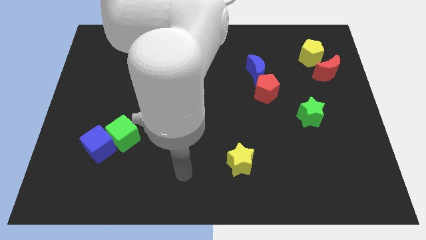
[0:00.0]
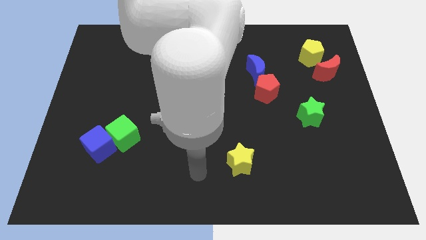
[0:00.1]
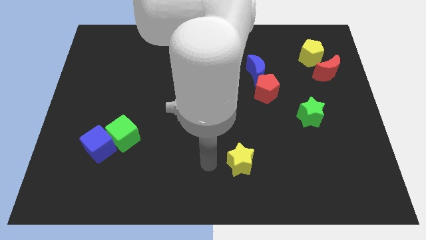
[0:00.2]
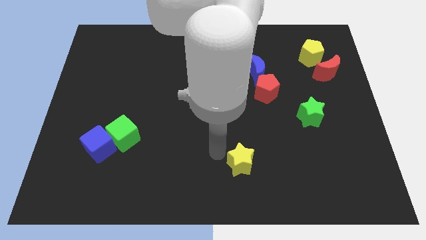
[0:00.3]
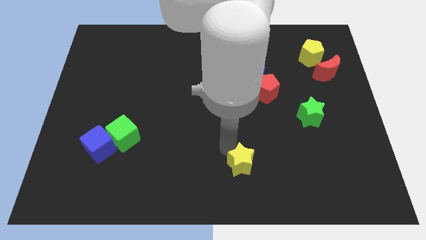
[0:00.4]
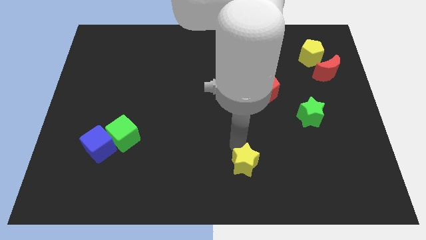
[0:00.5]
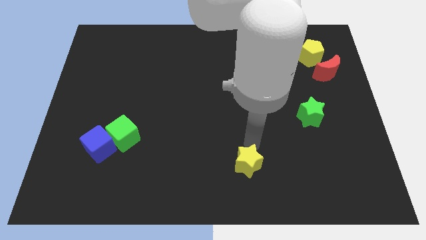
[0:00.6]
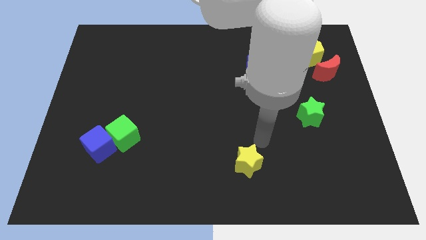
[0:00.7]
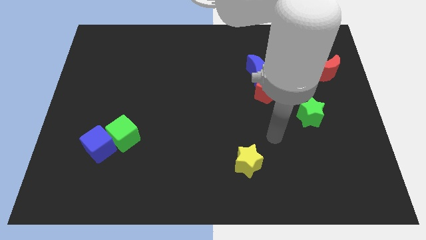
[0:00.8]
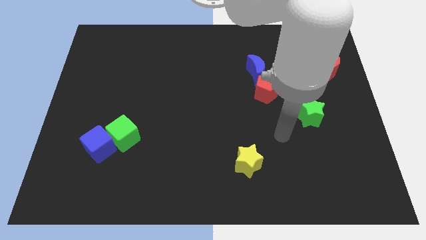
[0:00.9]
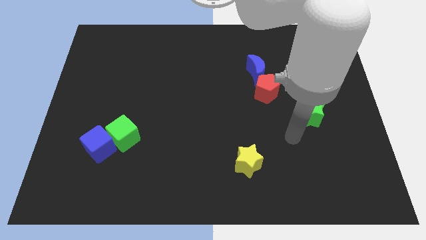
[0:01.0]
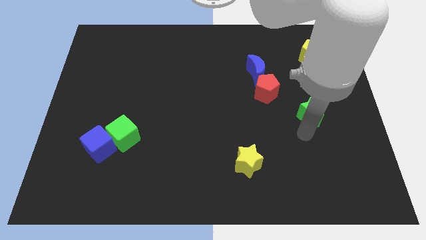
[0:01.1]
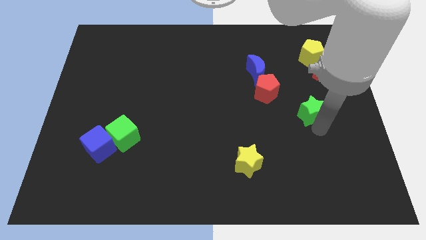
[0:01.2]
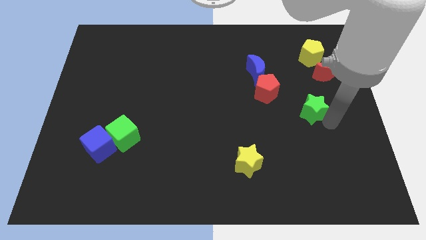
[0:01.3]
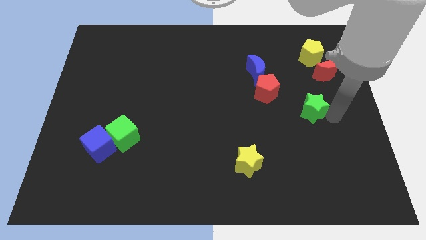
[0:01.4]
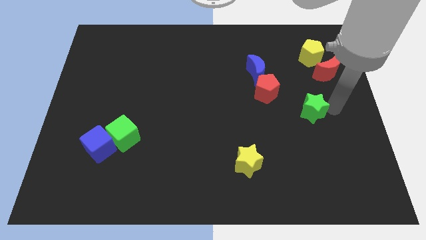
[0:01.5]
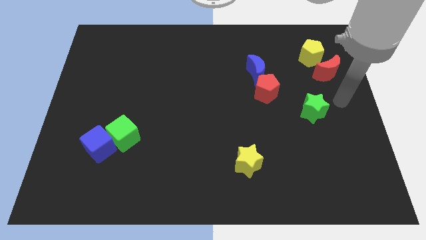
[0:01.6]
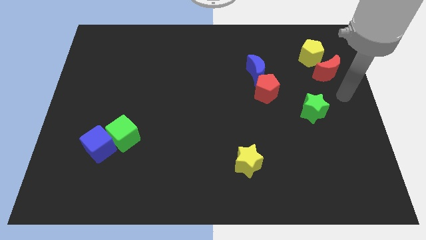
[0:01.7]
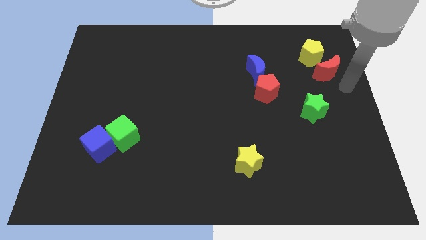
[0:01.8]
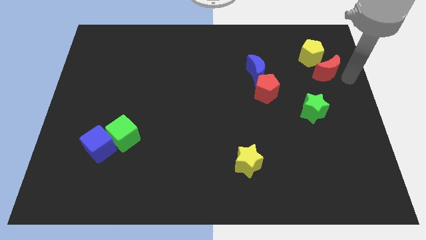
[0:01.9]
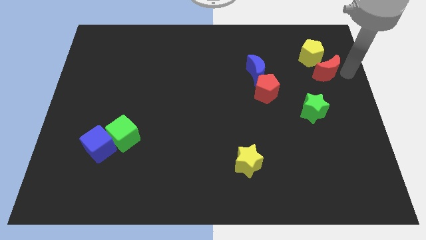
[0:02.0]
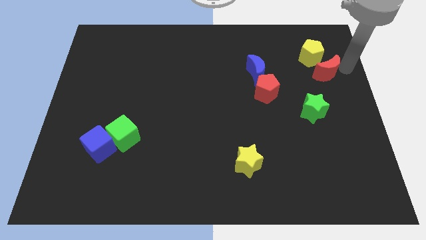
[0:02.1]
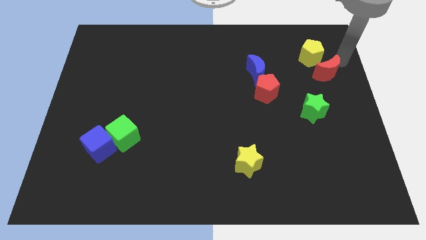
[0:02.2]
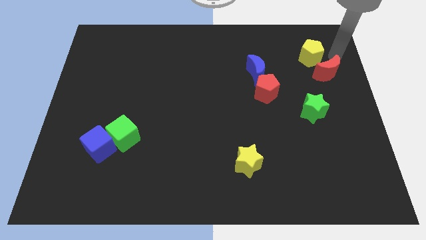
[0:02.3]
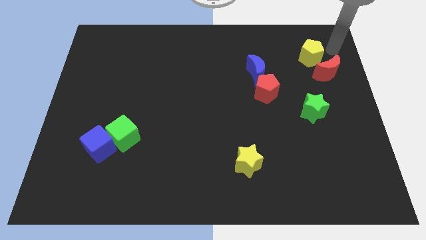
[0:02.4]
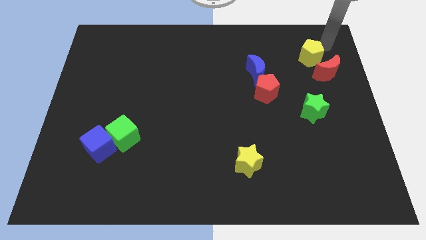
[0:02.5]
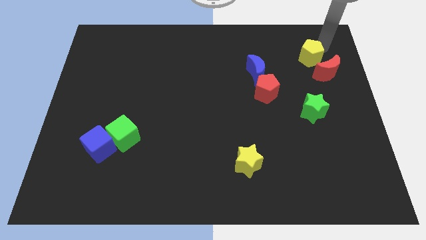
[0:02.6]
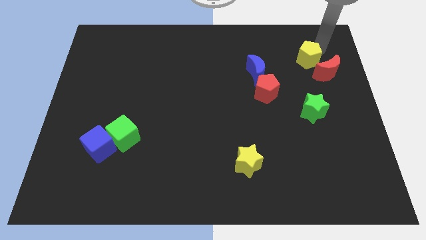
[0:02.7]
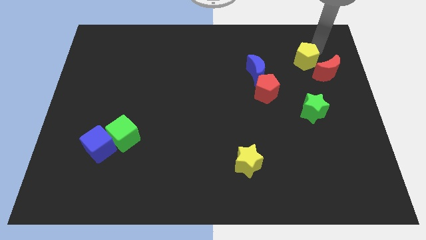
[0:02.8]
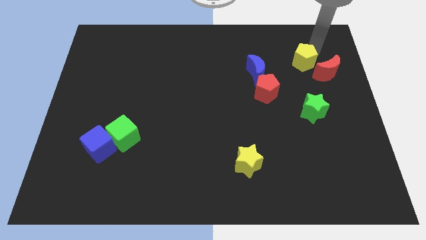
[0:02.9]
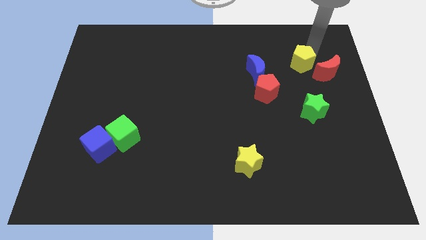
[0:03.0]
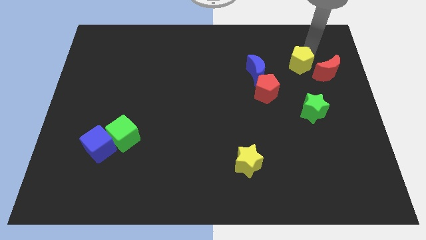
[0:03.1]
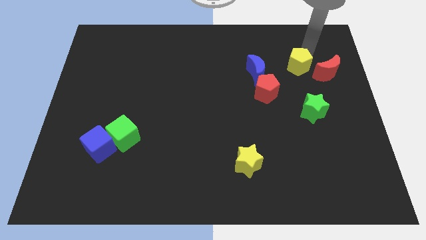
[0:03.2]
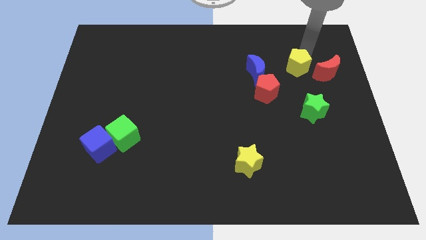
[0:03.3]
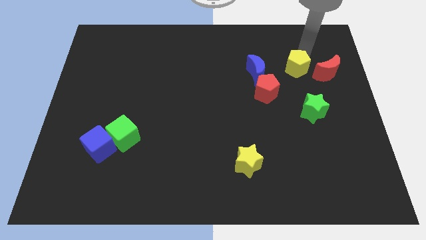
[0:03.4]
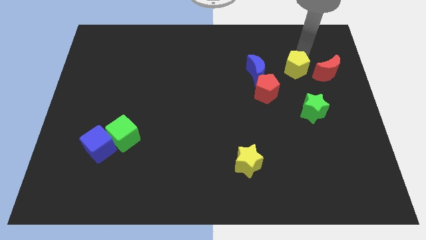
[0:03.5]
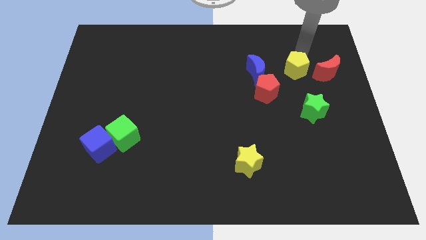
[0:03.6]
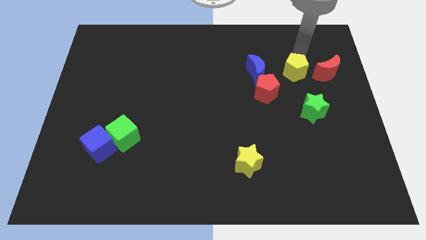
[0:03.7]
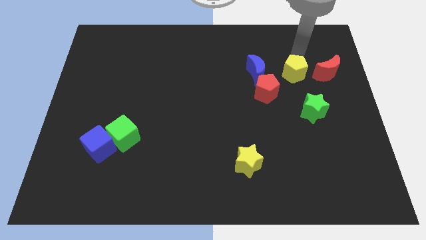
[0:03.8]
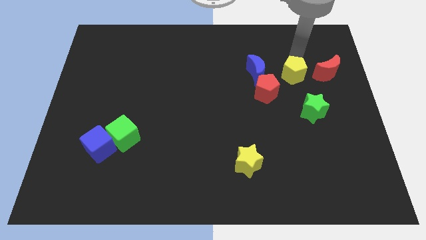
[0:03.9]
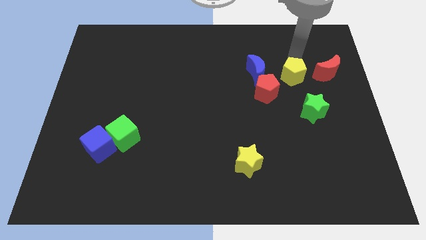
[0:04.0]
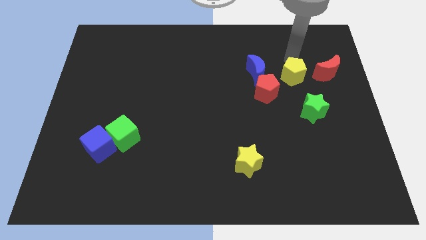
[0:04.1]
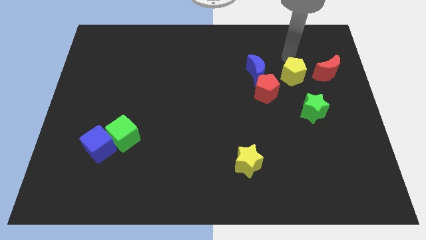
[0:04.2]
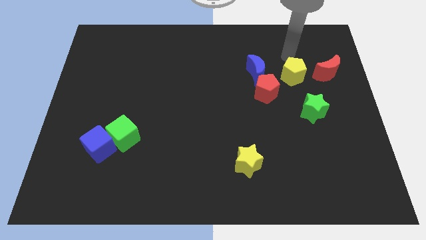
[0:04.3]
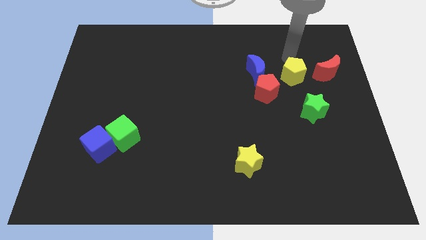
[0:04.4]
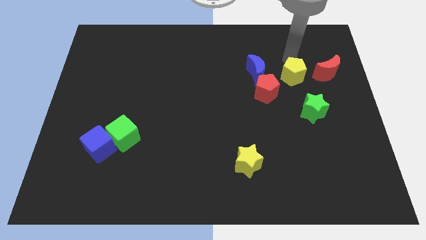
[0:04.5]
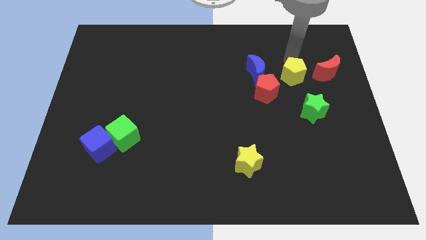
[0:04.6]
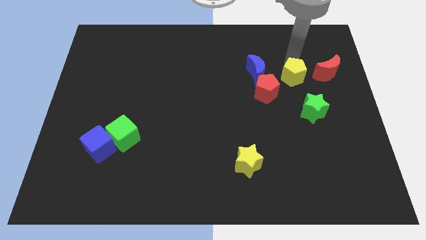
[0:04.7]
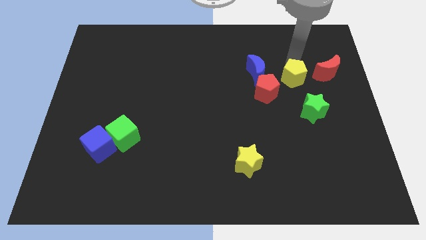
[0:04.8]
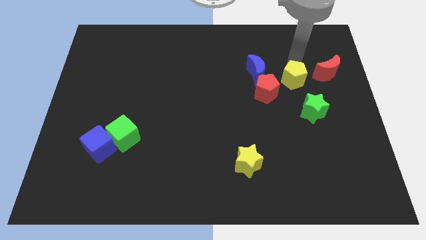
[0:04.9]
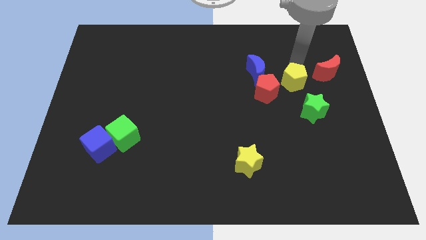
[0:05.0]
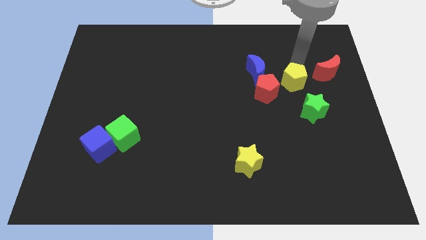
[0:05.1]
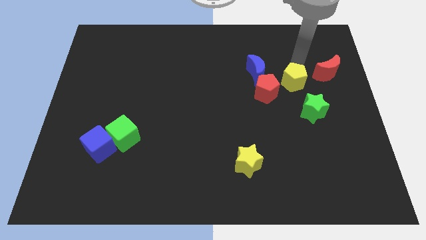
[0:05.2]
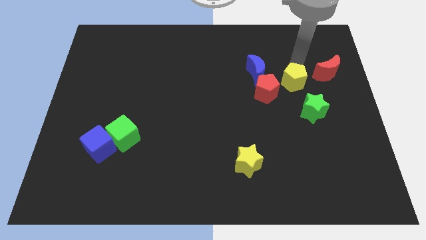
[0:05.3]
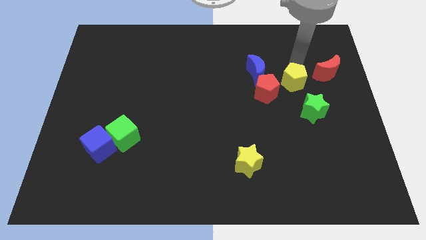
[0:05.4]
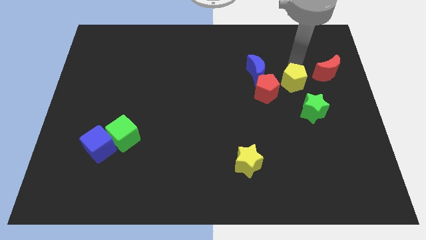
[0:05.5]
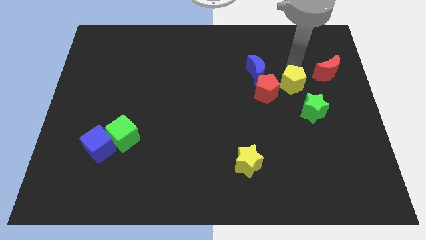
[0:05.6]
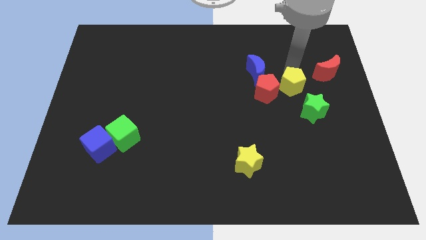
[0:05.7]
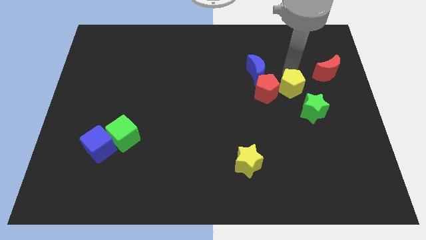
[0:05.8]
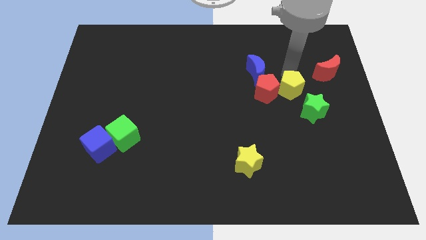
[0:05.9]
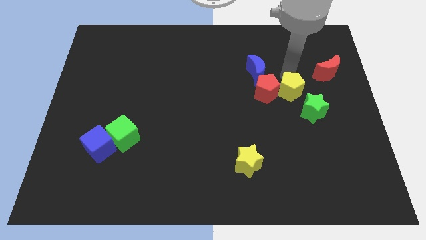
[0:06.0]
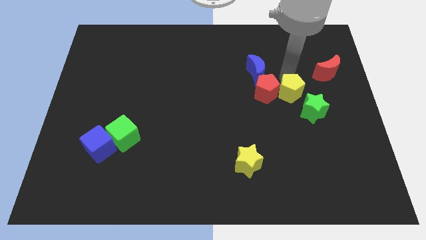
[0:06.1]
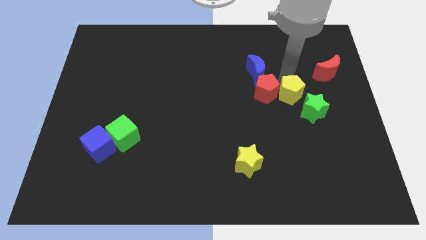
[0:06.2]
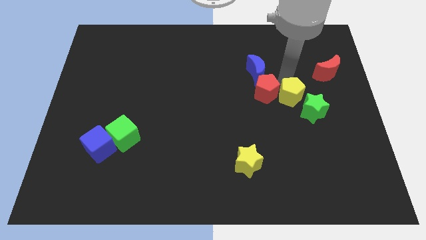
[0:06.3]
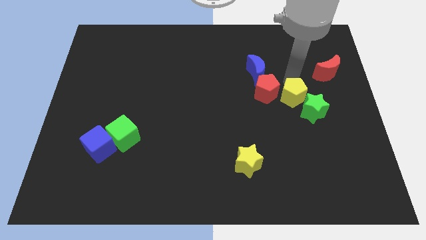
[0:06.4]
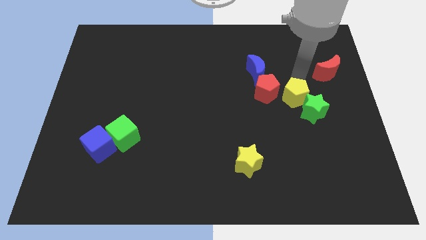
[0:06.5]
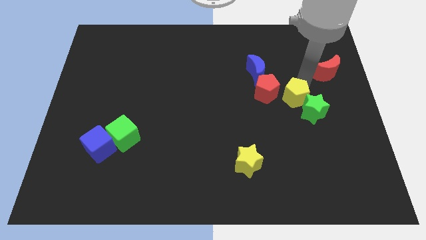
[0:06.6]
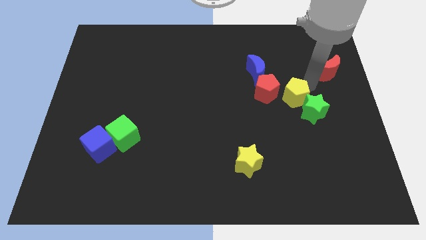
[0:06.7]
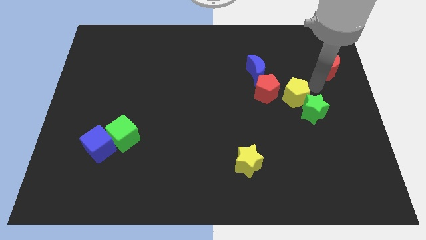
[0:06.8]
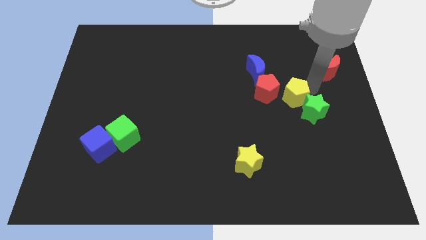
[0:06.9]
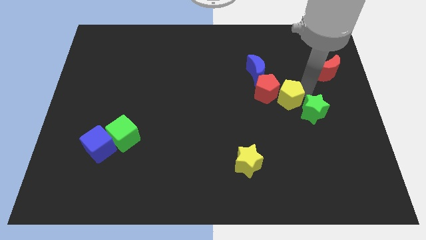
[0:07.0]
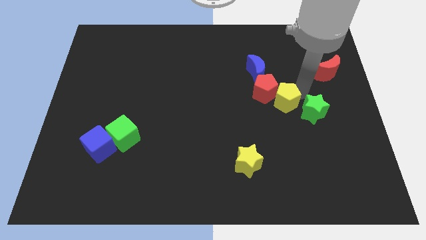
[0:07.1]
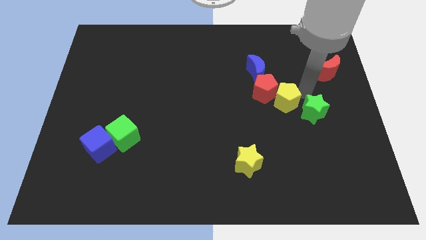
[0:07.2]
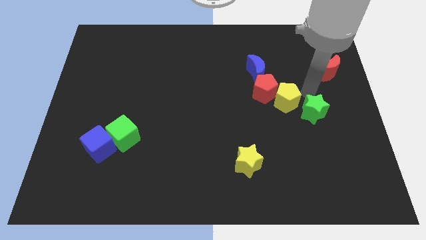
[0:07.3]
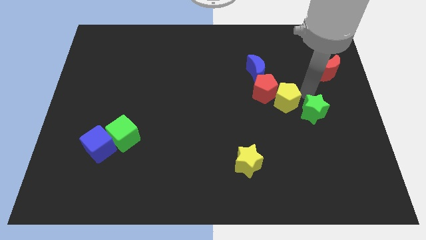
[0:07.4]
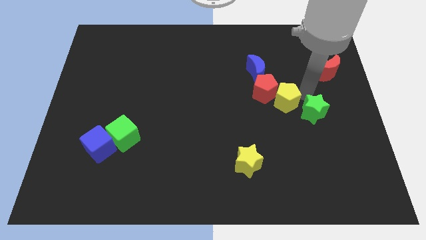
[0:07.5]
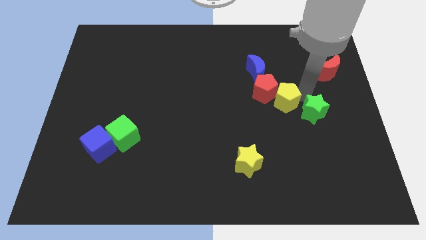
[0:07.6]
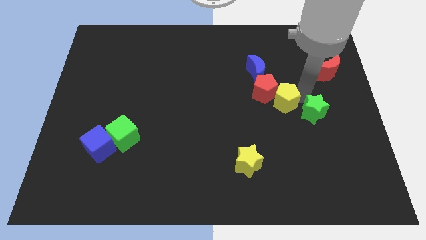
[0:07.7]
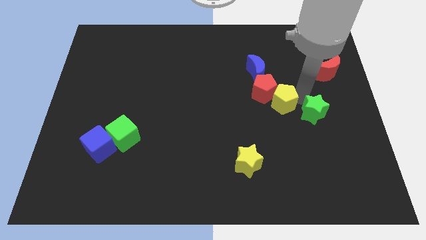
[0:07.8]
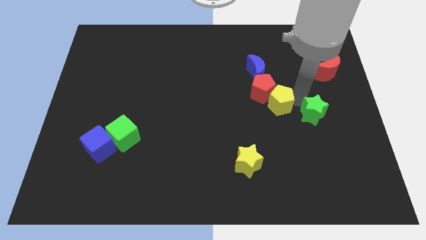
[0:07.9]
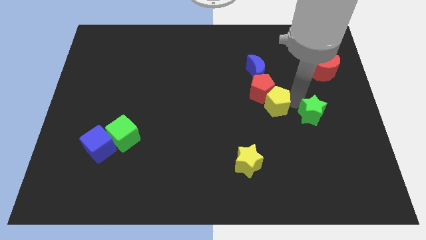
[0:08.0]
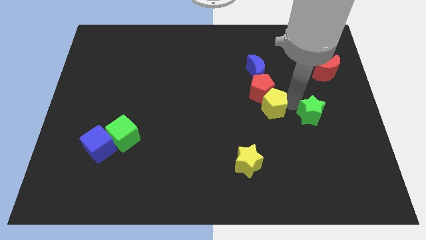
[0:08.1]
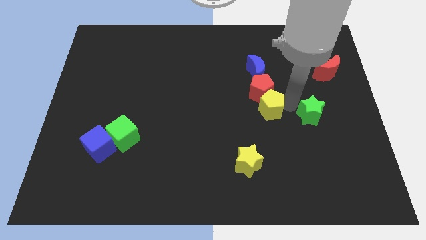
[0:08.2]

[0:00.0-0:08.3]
push the yellow pentagon diagonally down and to the left of the red pentagon
